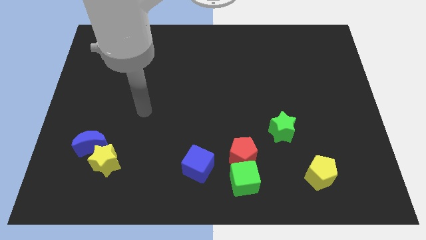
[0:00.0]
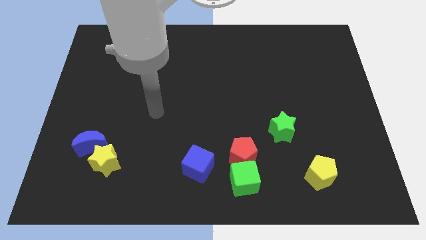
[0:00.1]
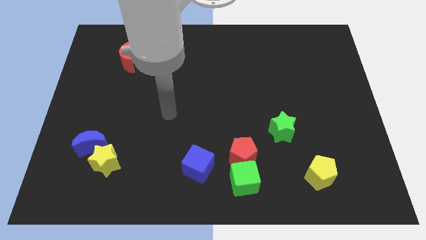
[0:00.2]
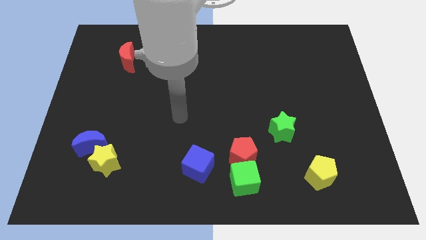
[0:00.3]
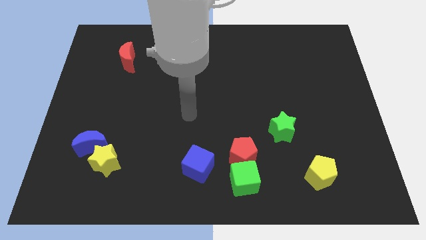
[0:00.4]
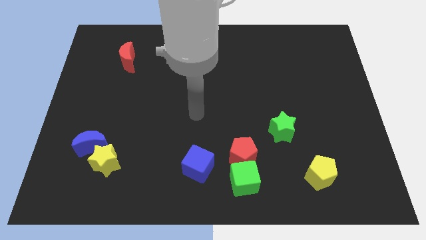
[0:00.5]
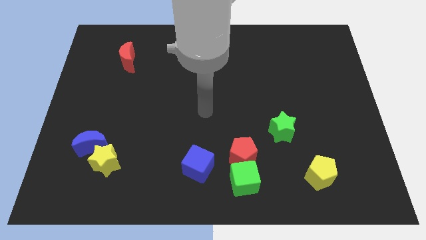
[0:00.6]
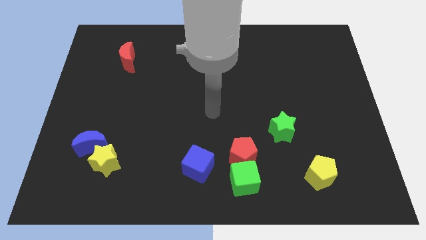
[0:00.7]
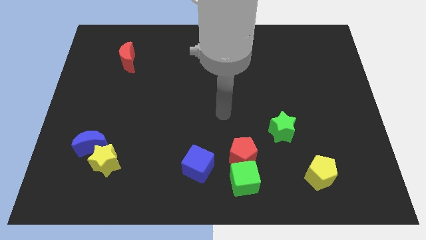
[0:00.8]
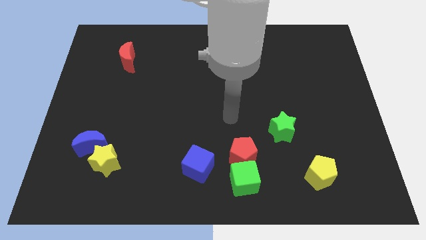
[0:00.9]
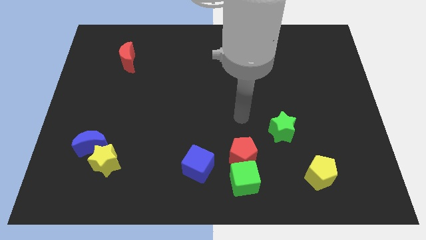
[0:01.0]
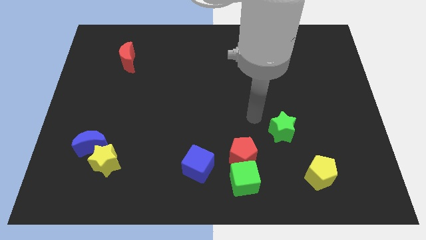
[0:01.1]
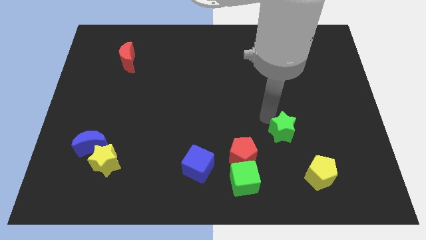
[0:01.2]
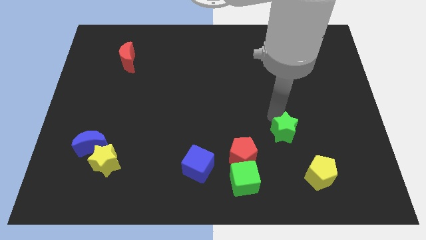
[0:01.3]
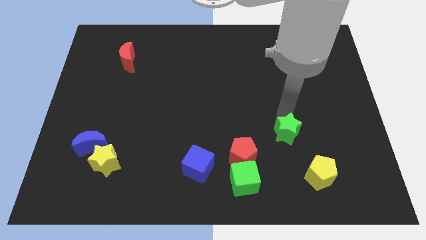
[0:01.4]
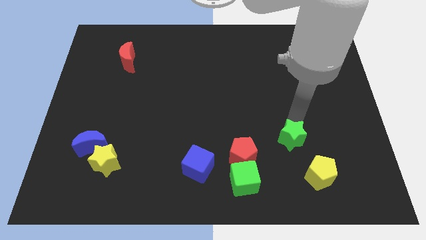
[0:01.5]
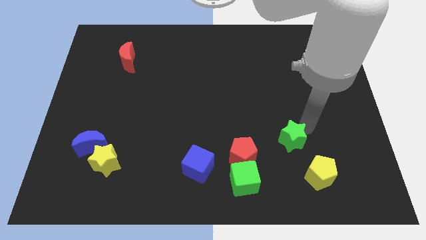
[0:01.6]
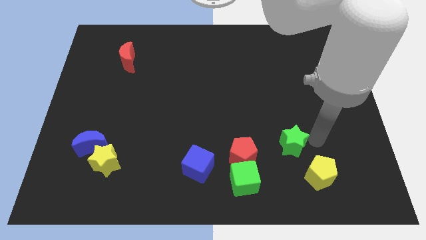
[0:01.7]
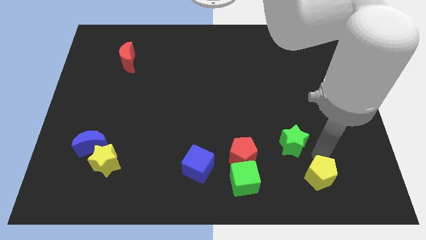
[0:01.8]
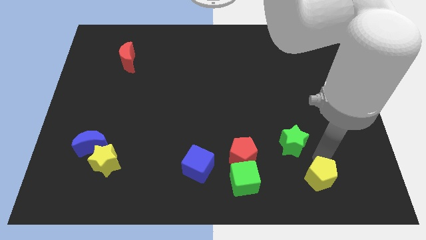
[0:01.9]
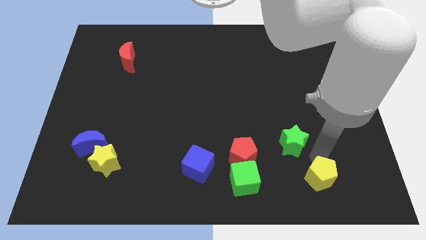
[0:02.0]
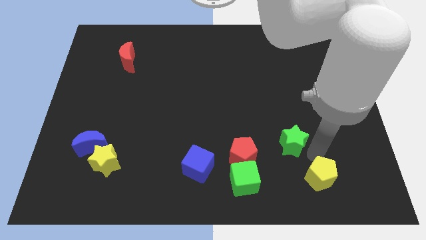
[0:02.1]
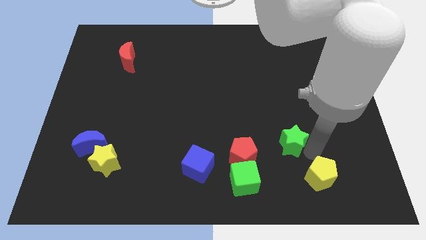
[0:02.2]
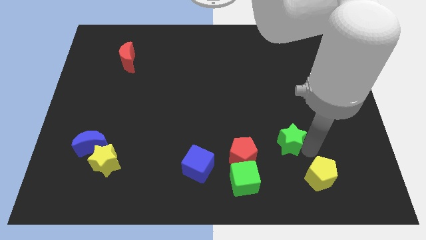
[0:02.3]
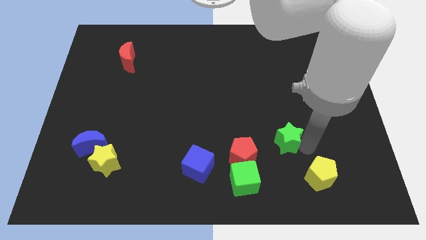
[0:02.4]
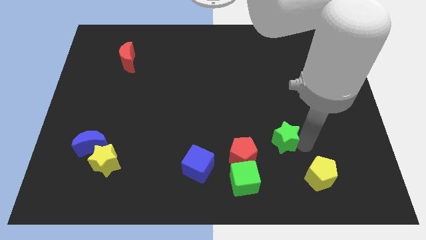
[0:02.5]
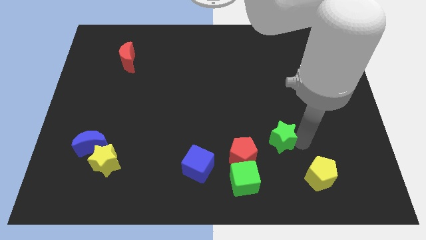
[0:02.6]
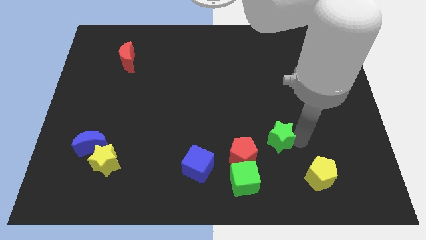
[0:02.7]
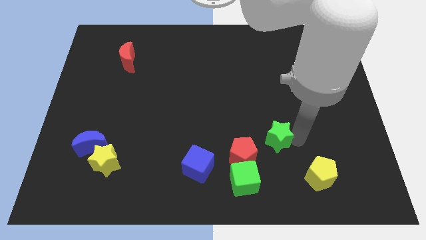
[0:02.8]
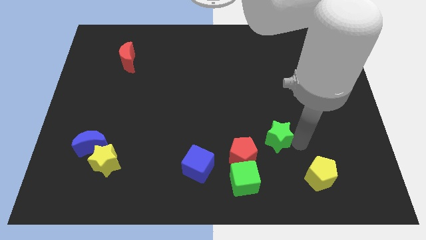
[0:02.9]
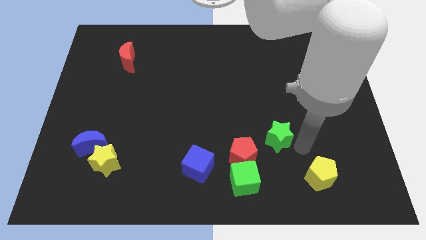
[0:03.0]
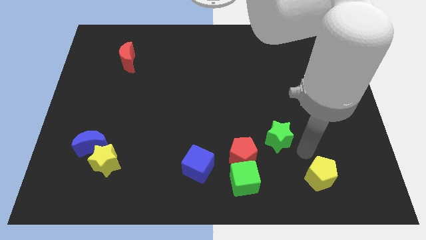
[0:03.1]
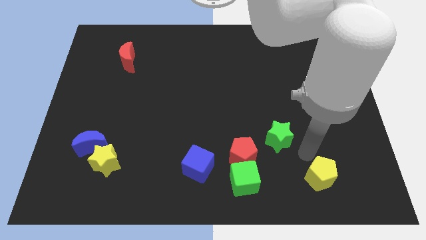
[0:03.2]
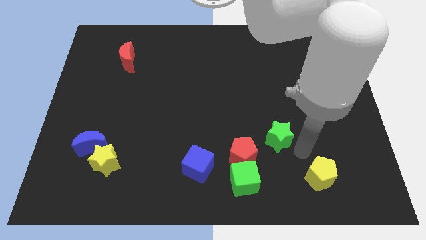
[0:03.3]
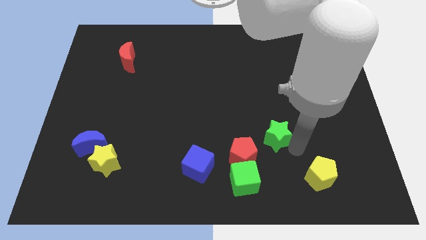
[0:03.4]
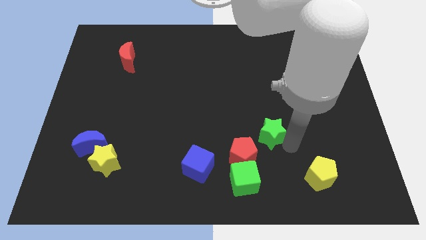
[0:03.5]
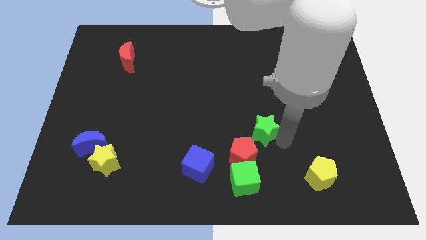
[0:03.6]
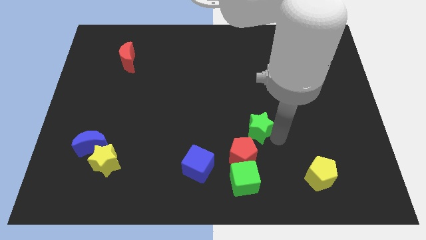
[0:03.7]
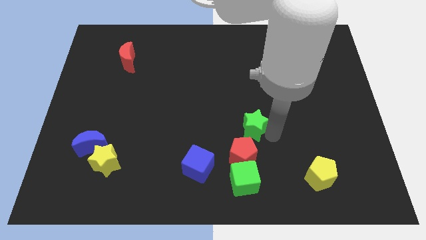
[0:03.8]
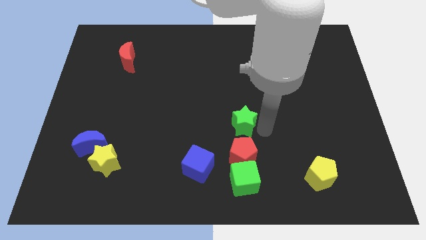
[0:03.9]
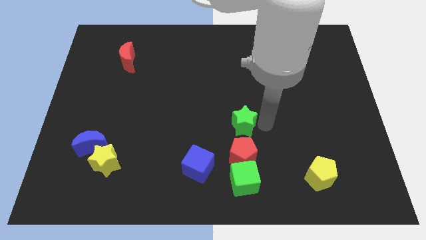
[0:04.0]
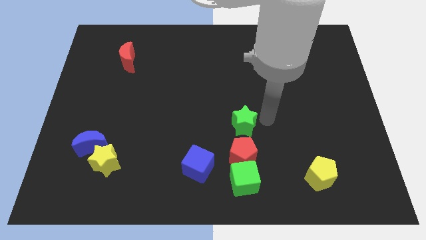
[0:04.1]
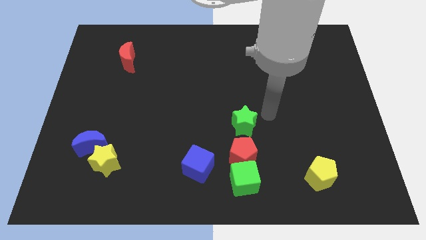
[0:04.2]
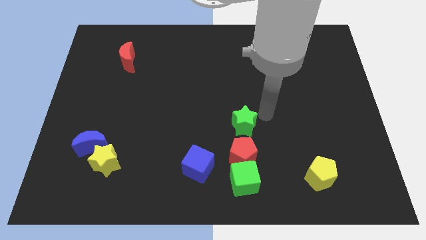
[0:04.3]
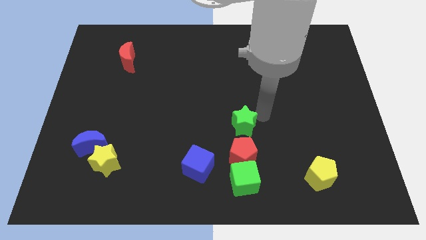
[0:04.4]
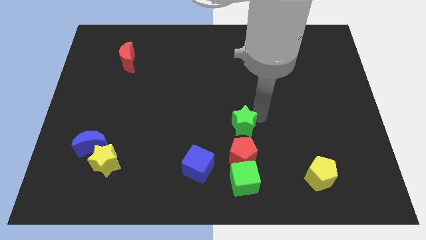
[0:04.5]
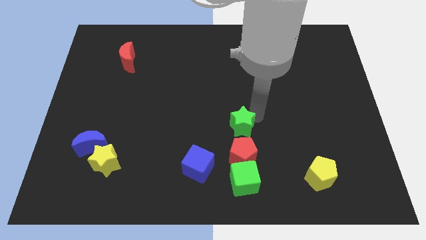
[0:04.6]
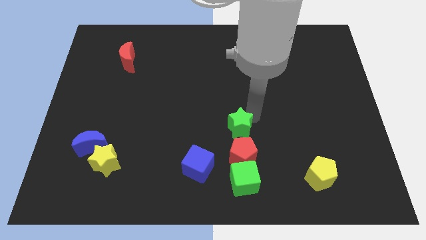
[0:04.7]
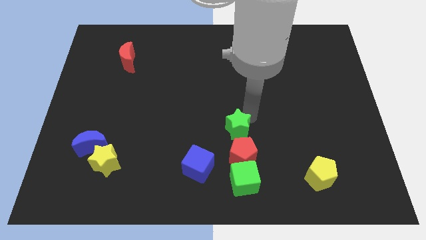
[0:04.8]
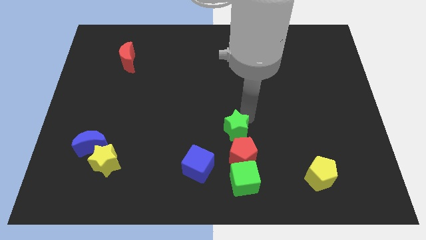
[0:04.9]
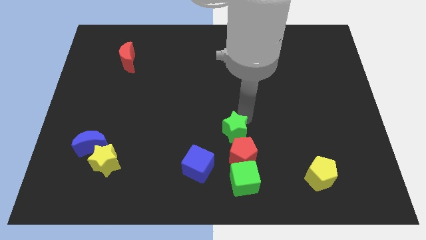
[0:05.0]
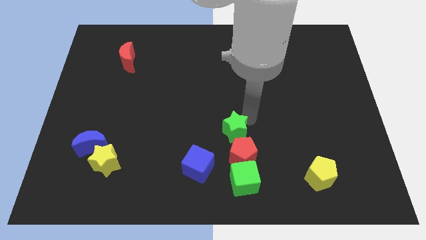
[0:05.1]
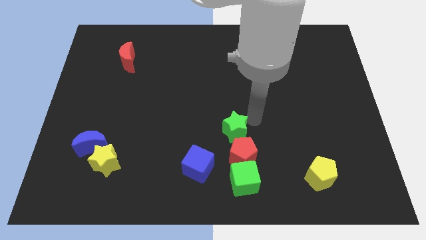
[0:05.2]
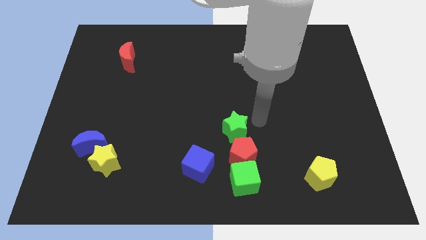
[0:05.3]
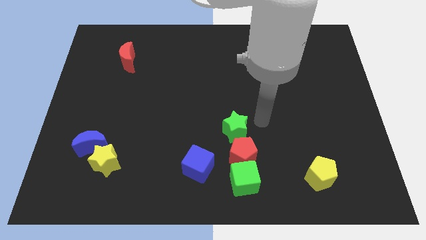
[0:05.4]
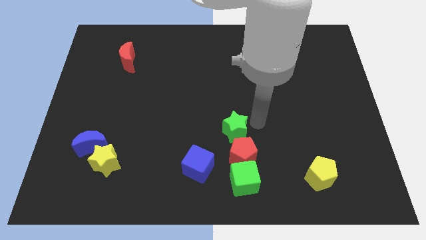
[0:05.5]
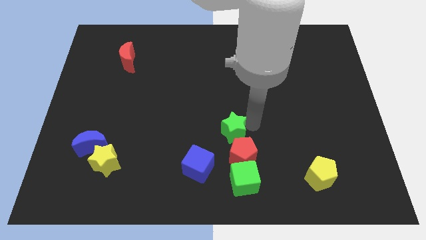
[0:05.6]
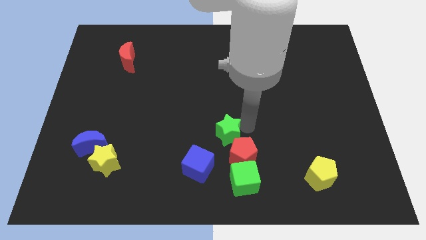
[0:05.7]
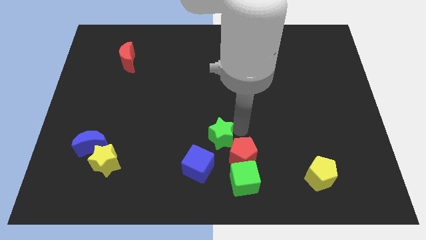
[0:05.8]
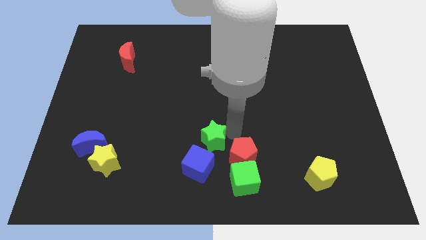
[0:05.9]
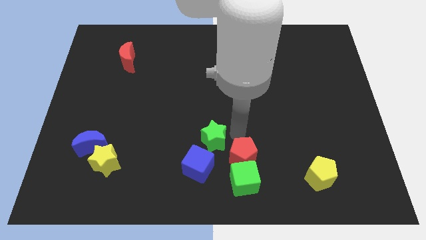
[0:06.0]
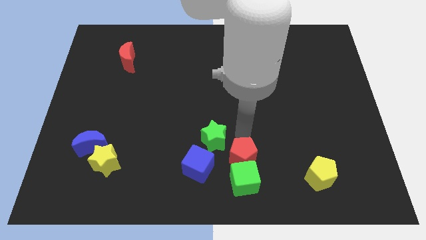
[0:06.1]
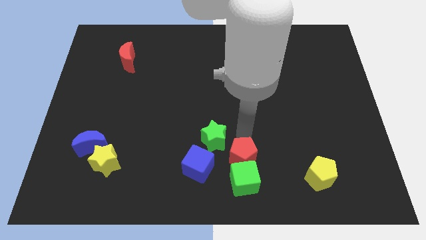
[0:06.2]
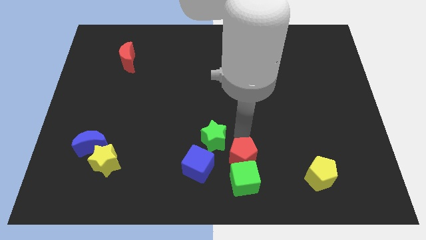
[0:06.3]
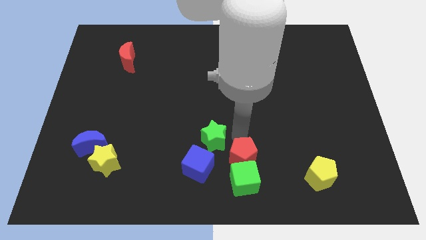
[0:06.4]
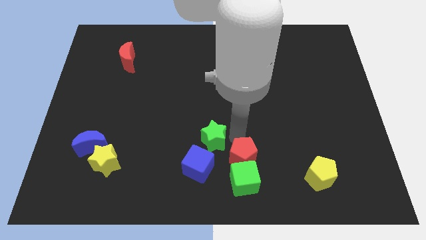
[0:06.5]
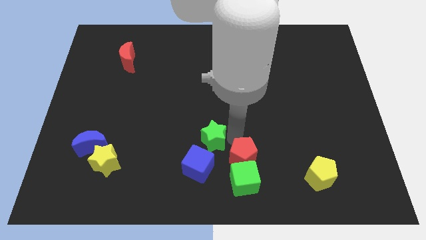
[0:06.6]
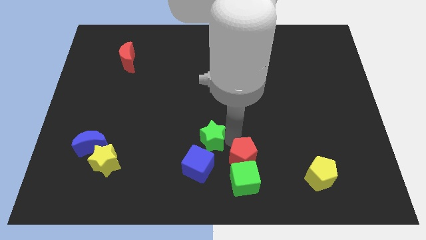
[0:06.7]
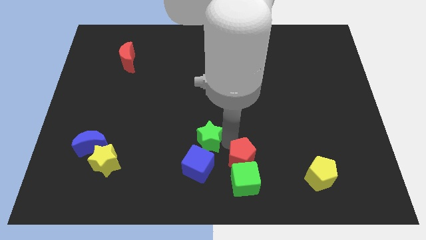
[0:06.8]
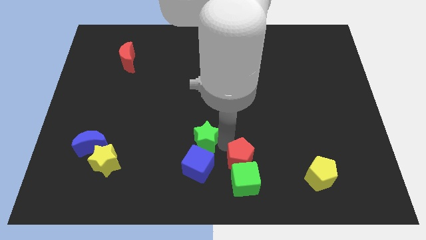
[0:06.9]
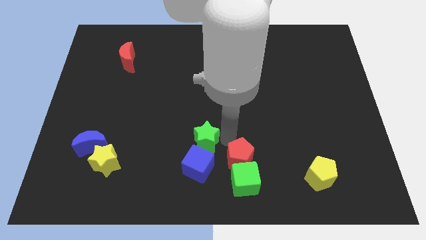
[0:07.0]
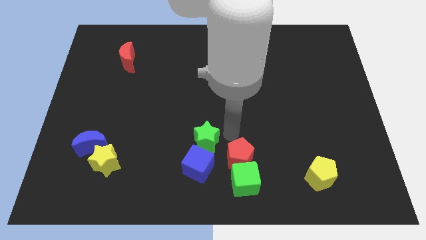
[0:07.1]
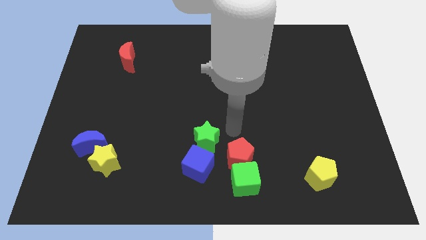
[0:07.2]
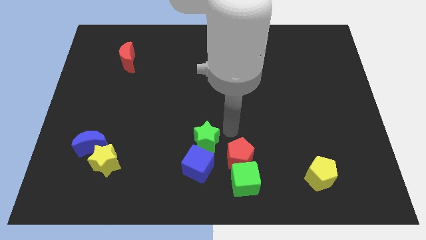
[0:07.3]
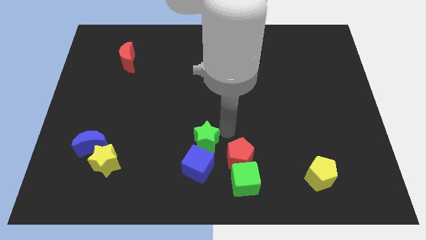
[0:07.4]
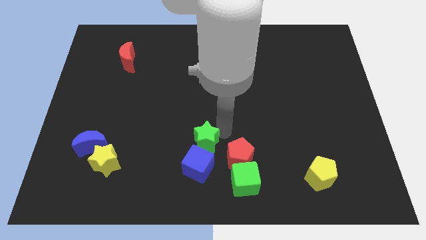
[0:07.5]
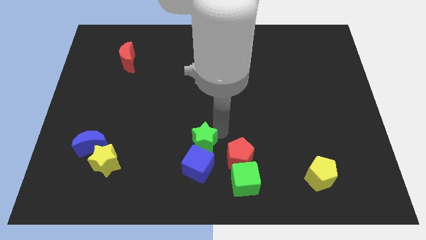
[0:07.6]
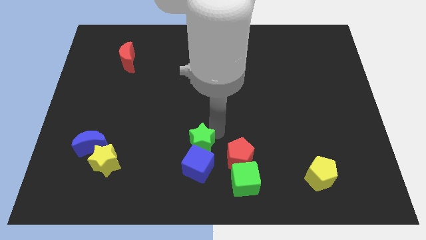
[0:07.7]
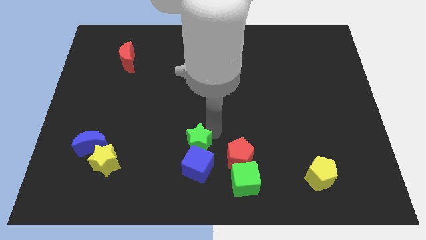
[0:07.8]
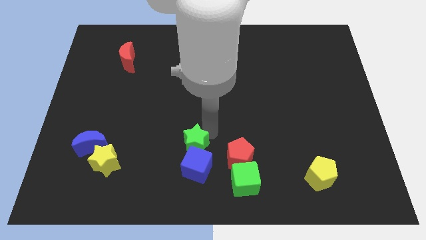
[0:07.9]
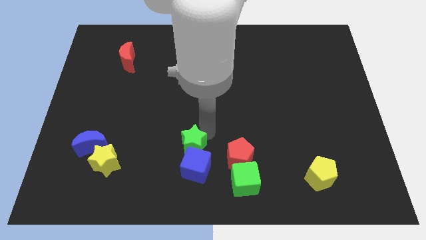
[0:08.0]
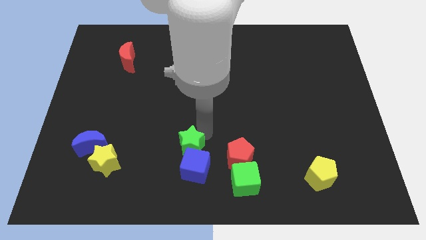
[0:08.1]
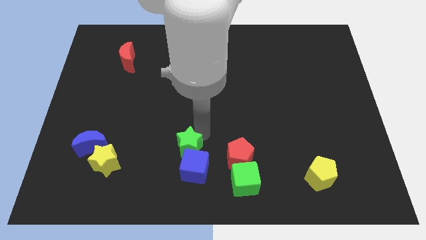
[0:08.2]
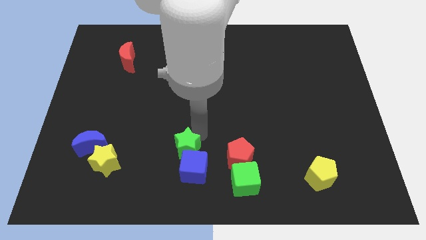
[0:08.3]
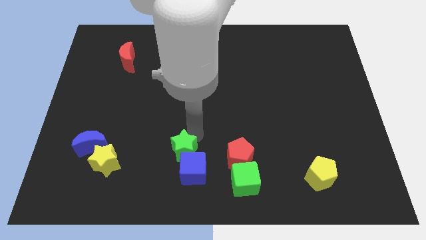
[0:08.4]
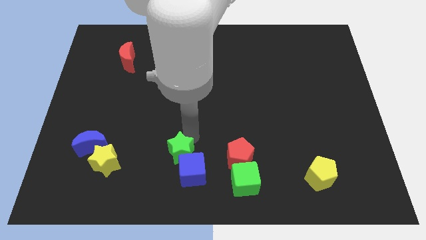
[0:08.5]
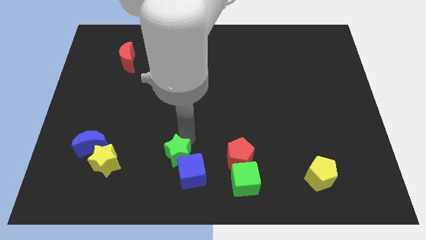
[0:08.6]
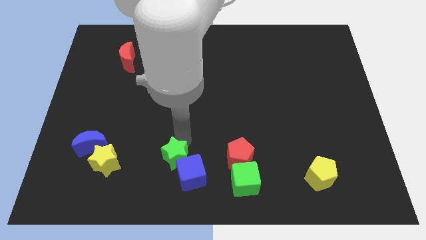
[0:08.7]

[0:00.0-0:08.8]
move the green star to the left side of the blue cube
